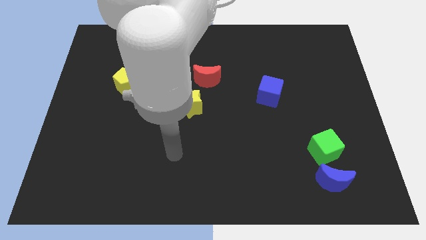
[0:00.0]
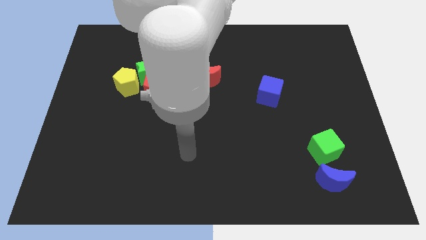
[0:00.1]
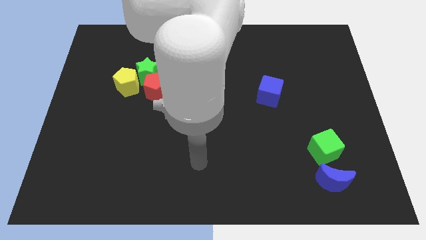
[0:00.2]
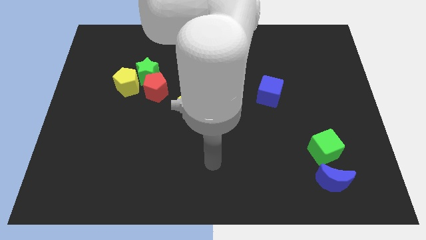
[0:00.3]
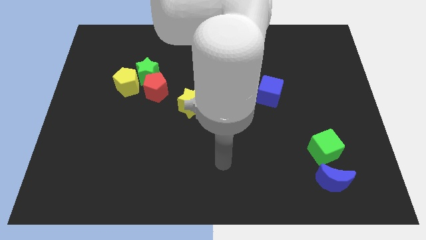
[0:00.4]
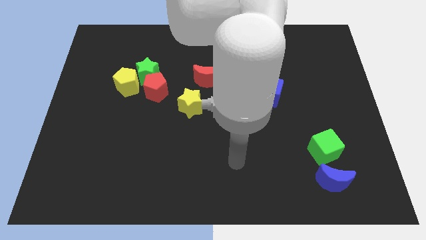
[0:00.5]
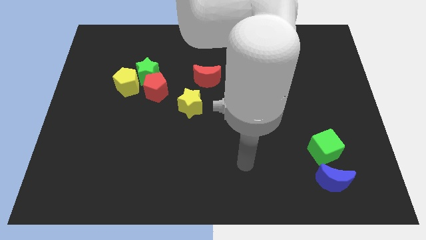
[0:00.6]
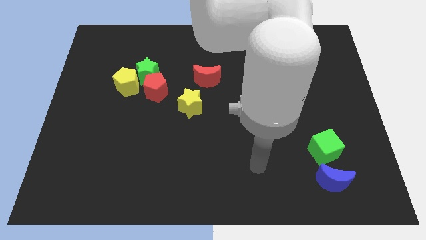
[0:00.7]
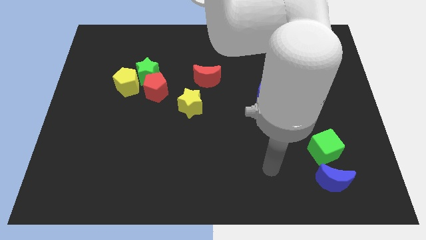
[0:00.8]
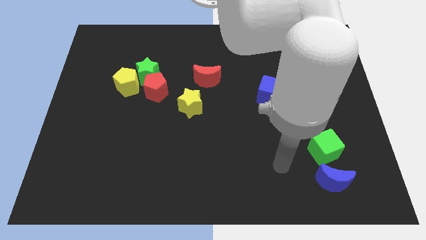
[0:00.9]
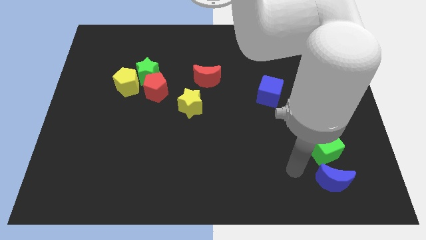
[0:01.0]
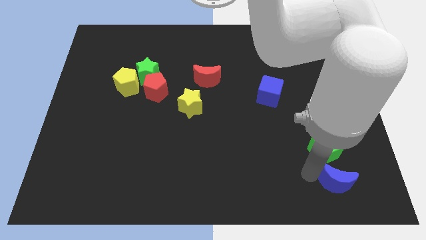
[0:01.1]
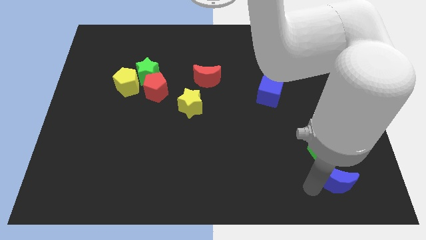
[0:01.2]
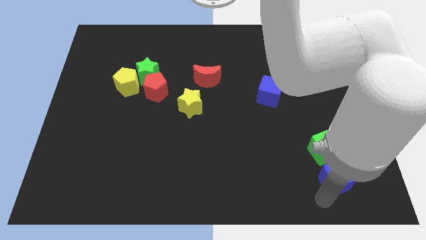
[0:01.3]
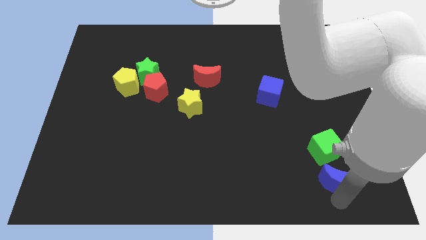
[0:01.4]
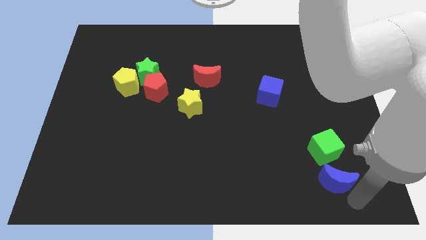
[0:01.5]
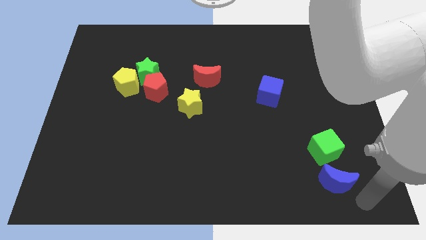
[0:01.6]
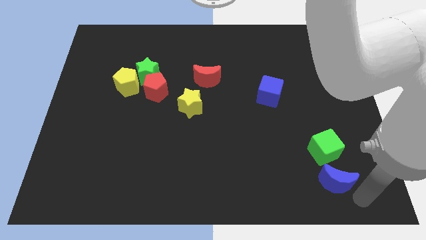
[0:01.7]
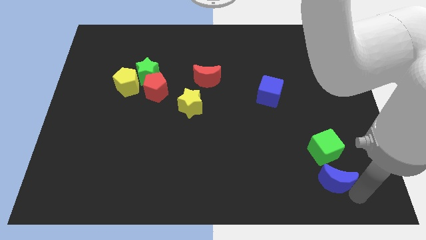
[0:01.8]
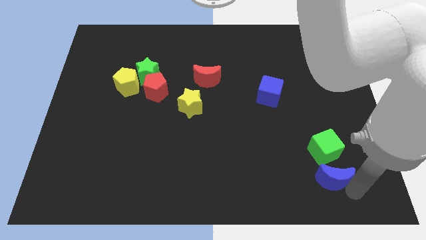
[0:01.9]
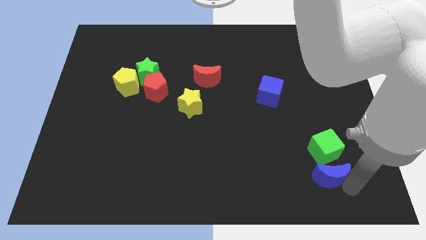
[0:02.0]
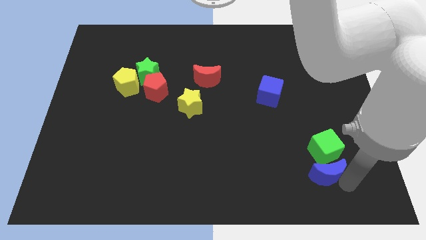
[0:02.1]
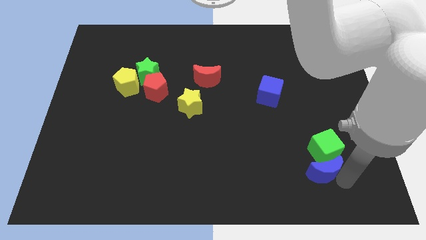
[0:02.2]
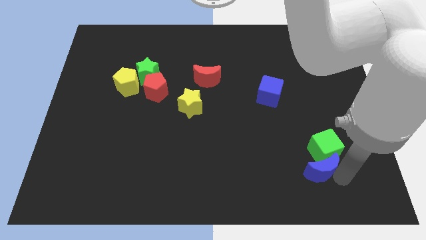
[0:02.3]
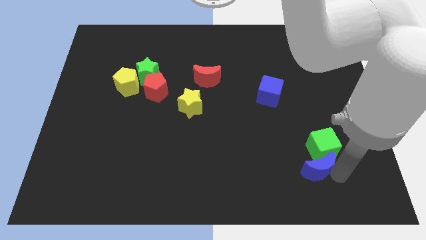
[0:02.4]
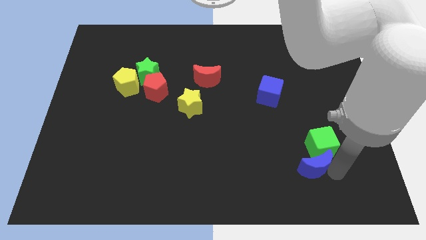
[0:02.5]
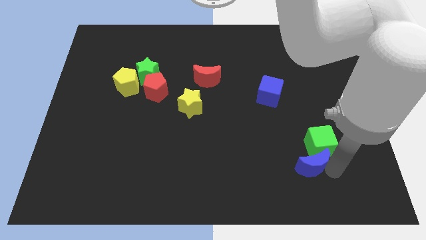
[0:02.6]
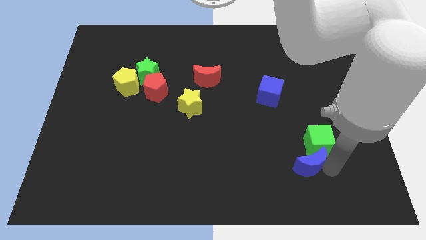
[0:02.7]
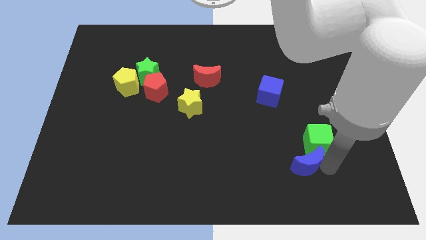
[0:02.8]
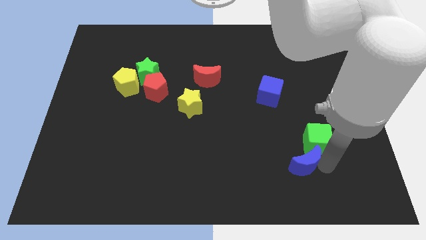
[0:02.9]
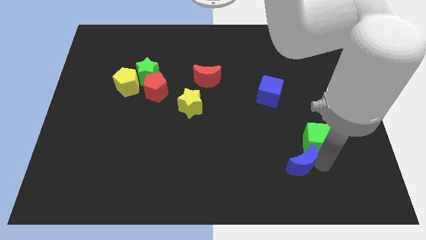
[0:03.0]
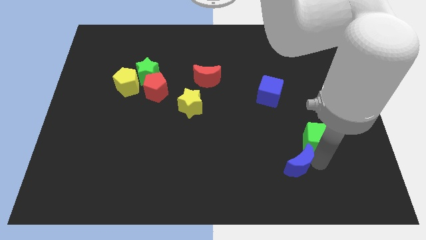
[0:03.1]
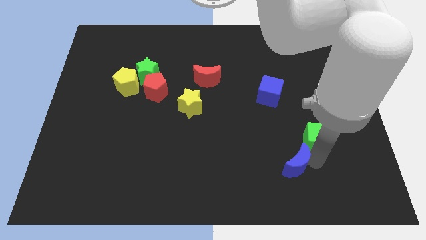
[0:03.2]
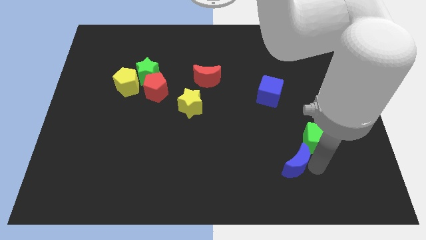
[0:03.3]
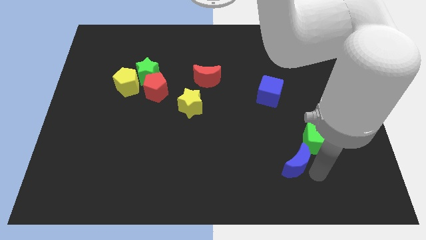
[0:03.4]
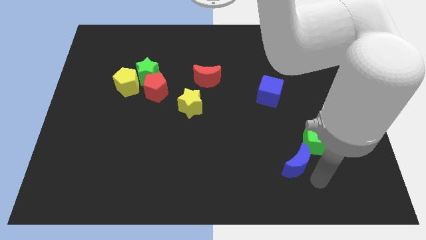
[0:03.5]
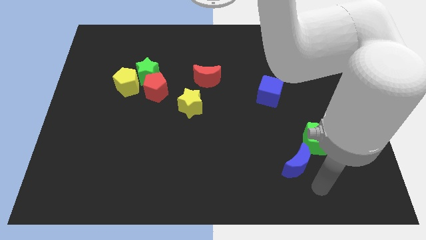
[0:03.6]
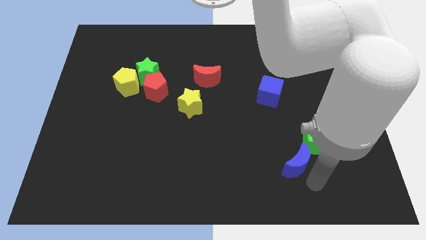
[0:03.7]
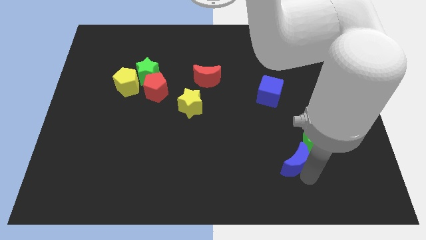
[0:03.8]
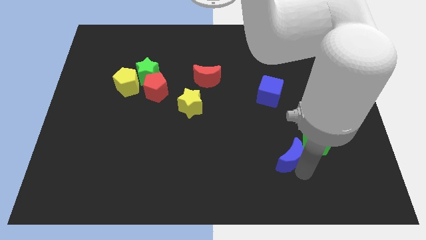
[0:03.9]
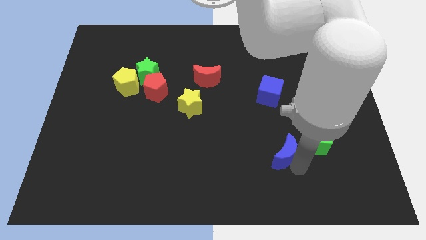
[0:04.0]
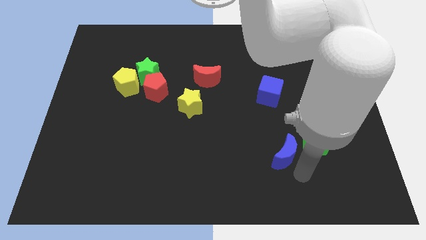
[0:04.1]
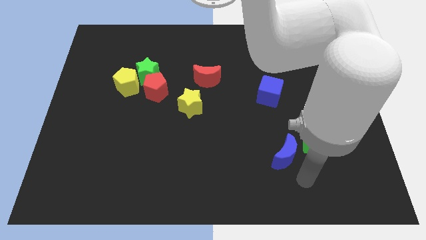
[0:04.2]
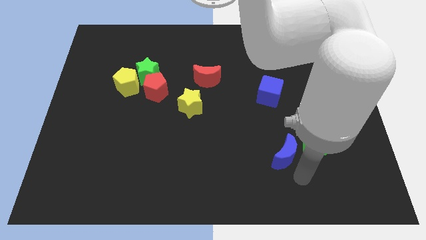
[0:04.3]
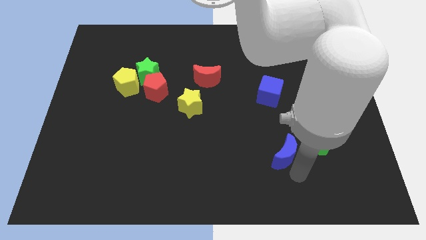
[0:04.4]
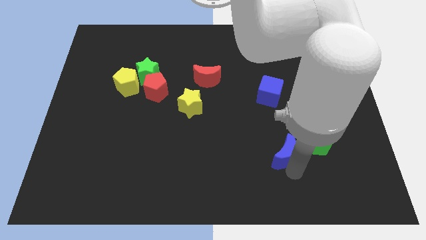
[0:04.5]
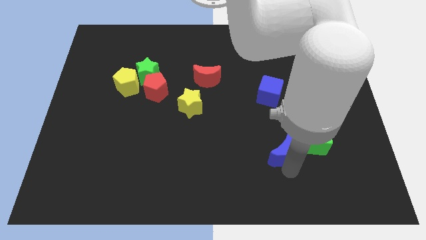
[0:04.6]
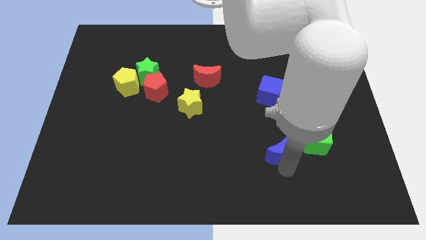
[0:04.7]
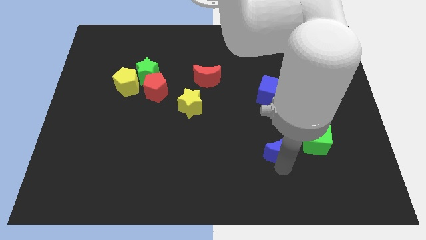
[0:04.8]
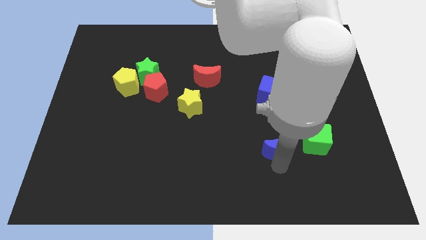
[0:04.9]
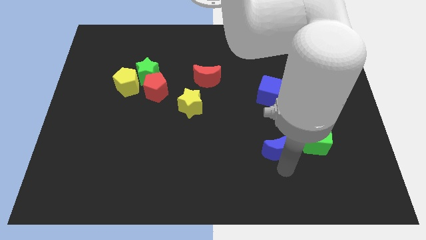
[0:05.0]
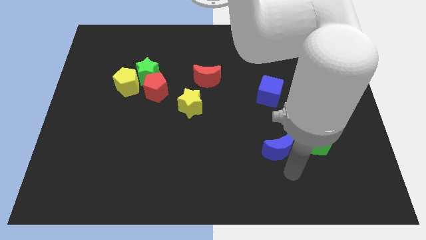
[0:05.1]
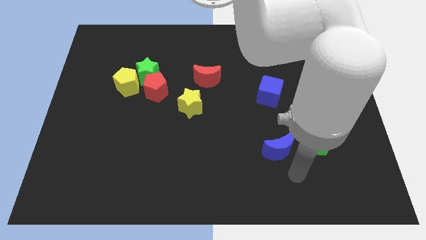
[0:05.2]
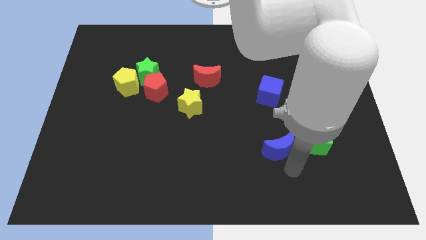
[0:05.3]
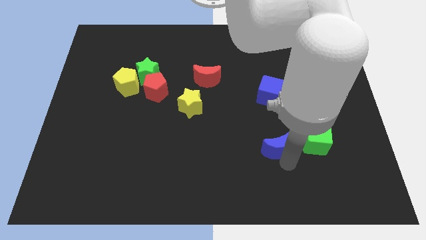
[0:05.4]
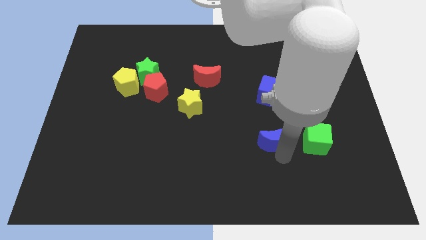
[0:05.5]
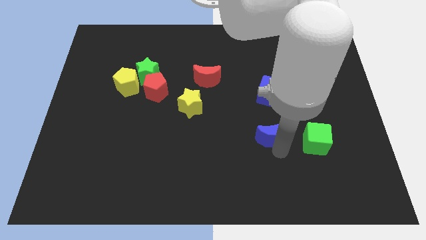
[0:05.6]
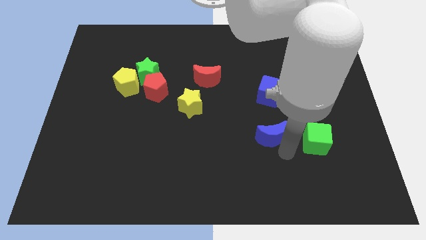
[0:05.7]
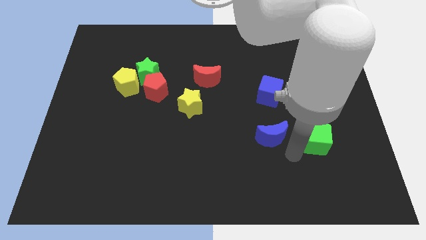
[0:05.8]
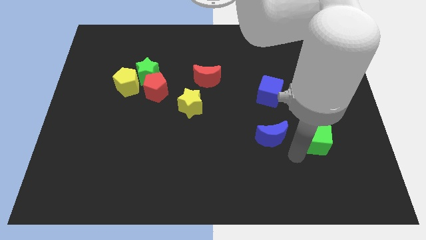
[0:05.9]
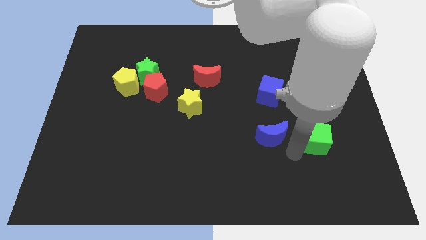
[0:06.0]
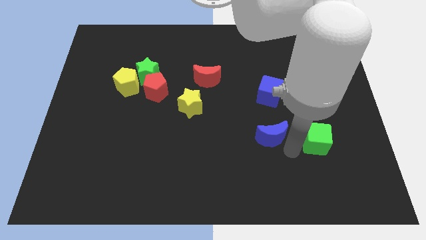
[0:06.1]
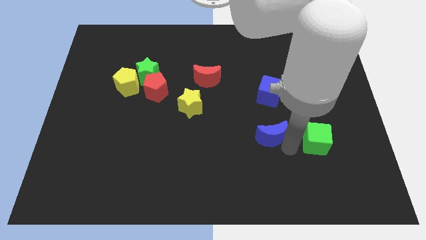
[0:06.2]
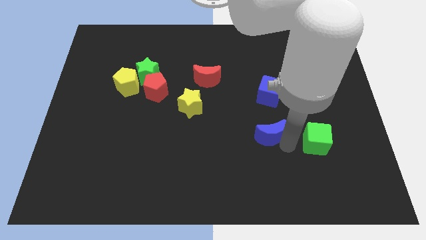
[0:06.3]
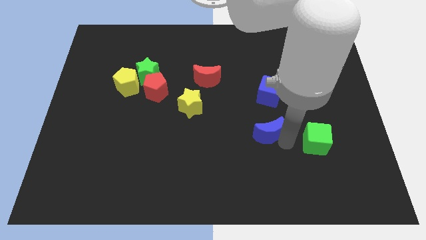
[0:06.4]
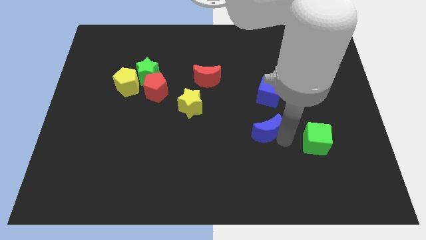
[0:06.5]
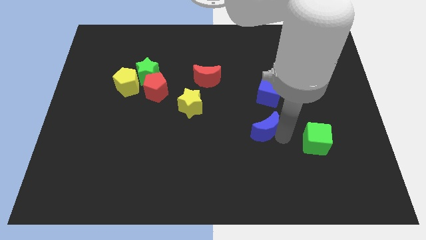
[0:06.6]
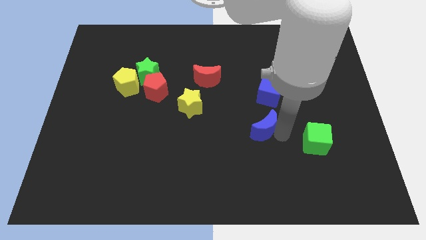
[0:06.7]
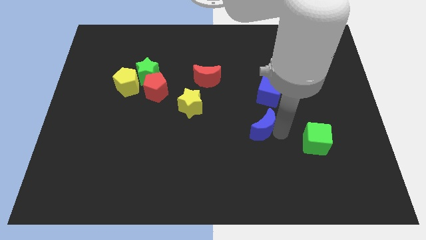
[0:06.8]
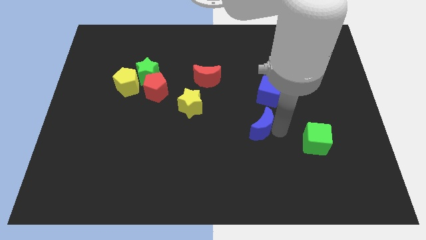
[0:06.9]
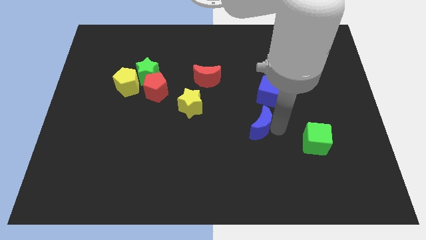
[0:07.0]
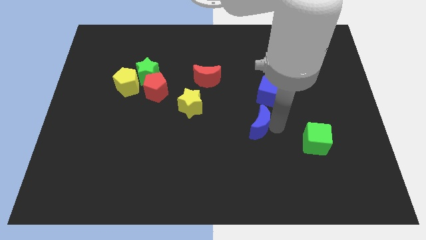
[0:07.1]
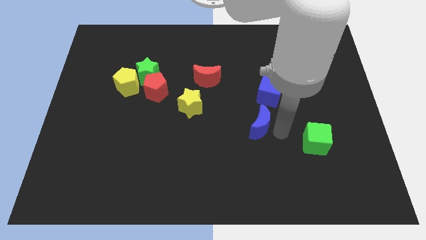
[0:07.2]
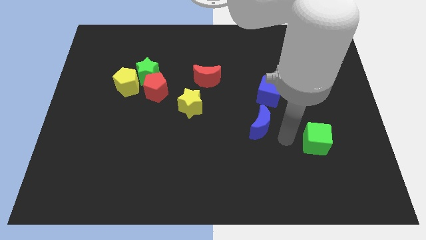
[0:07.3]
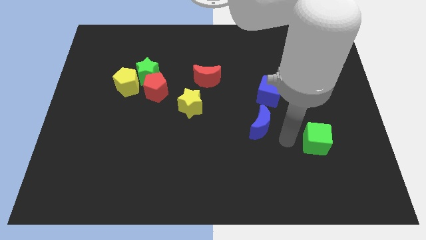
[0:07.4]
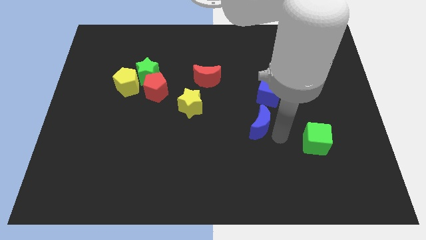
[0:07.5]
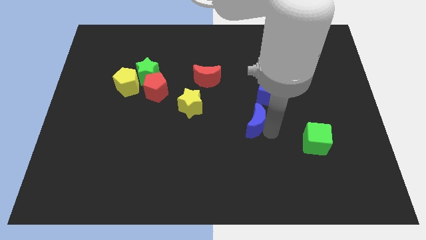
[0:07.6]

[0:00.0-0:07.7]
move the blue moon upwards and to the left

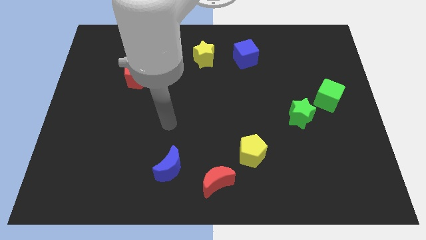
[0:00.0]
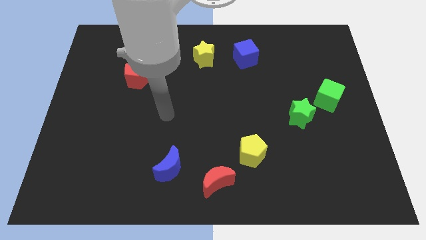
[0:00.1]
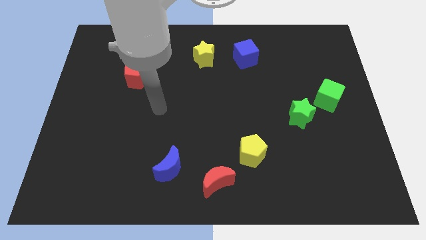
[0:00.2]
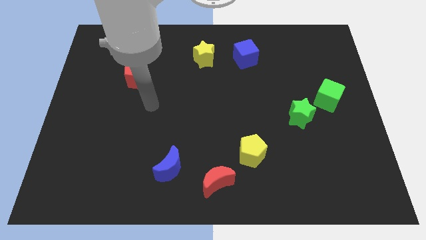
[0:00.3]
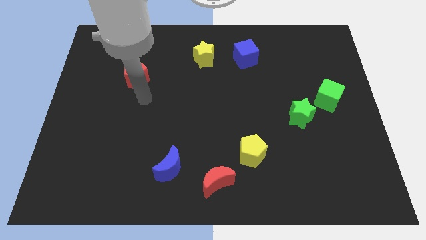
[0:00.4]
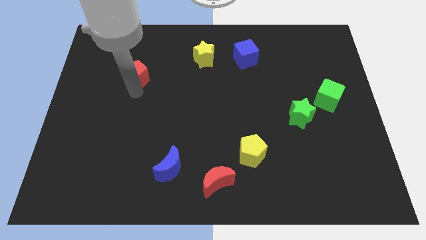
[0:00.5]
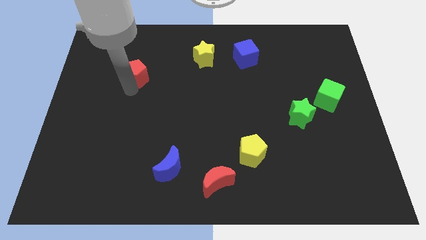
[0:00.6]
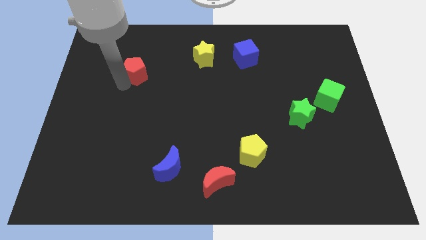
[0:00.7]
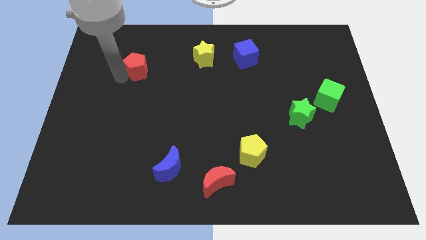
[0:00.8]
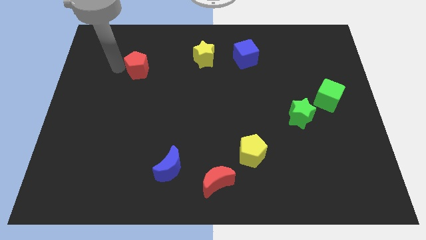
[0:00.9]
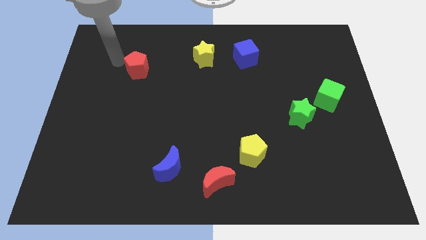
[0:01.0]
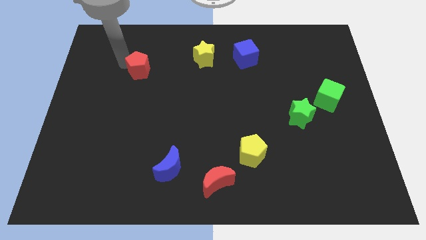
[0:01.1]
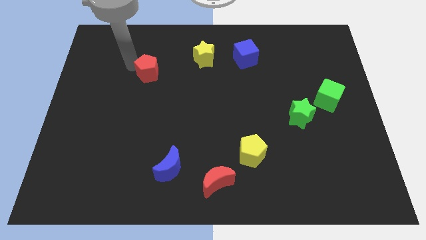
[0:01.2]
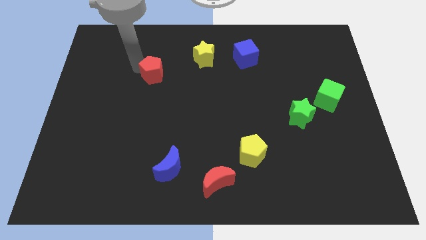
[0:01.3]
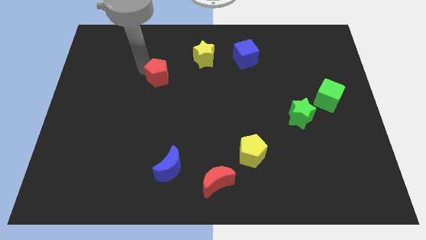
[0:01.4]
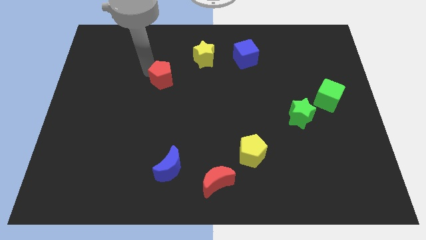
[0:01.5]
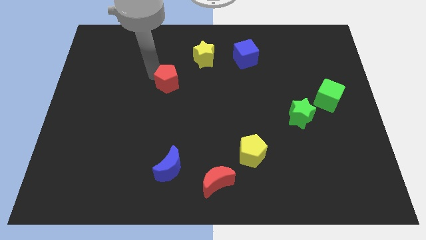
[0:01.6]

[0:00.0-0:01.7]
slide the red pentagon slightly right
